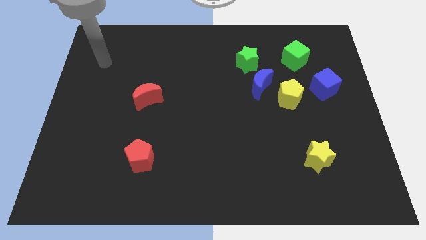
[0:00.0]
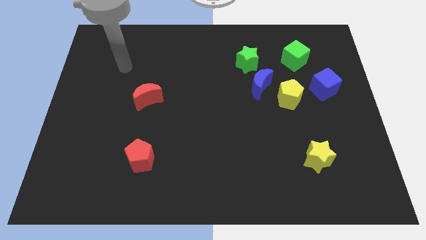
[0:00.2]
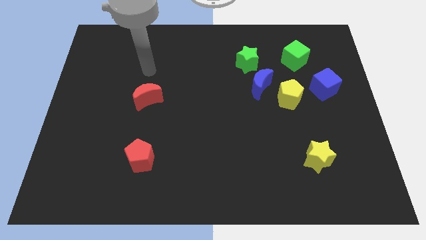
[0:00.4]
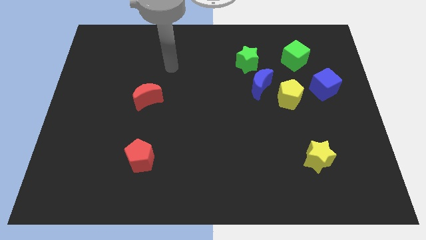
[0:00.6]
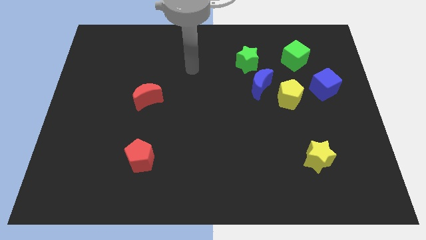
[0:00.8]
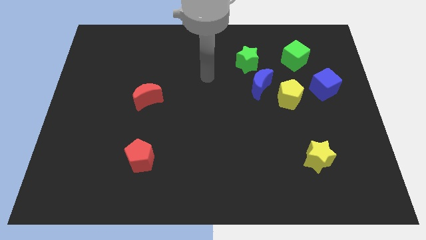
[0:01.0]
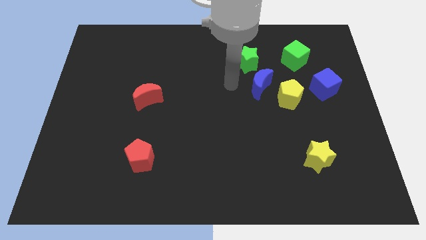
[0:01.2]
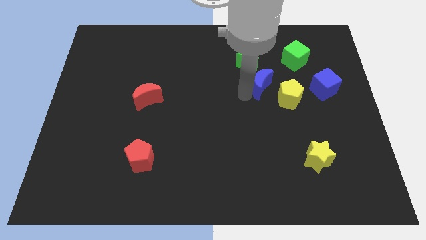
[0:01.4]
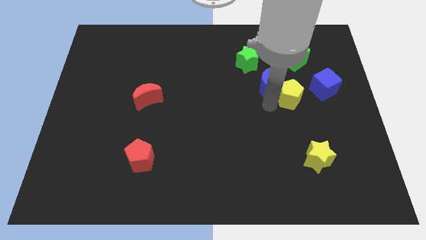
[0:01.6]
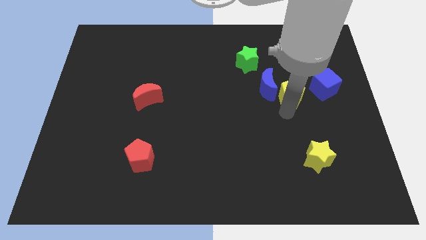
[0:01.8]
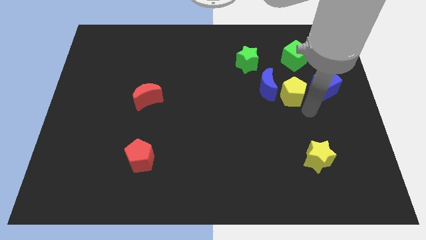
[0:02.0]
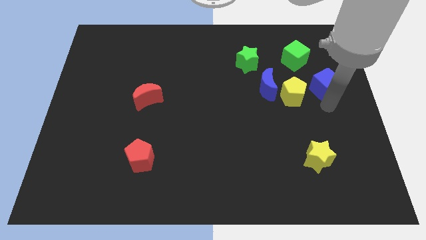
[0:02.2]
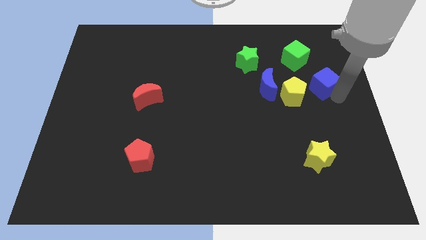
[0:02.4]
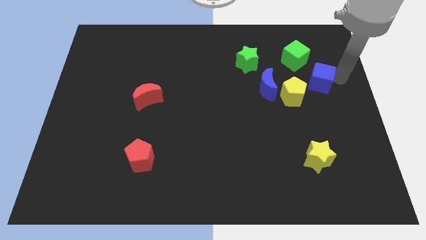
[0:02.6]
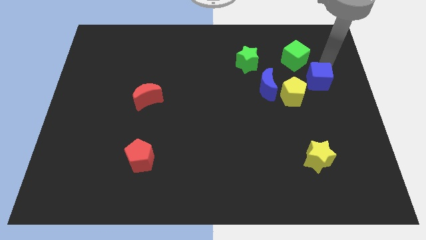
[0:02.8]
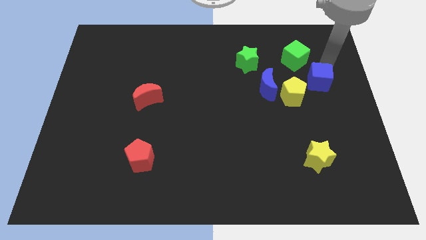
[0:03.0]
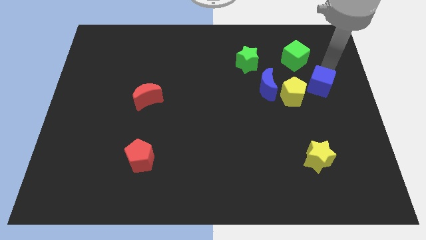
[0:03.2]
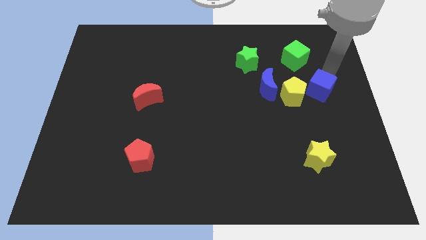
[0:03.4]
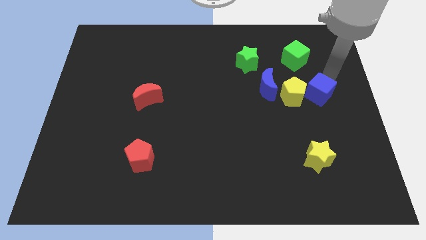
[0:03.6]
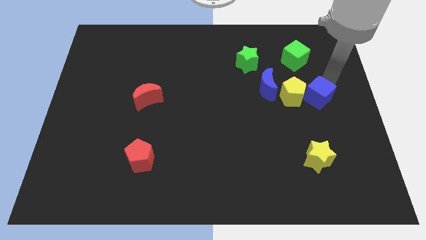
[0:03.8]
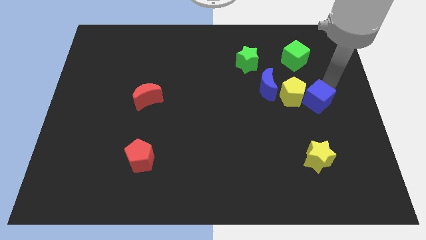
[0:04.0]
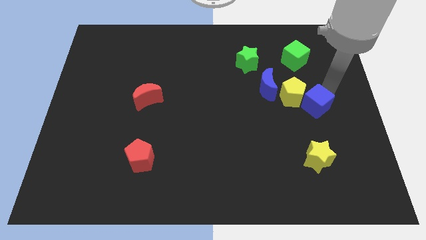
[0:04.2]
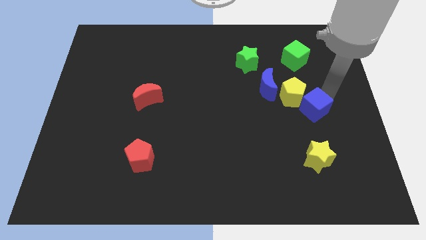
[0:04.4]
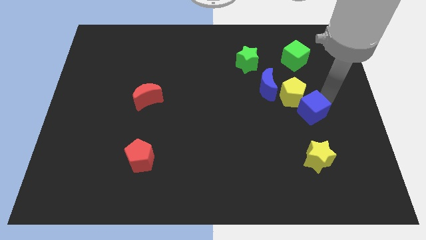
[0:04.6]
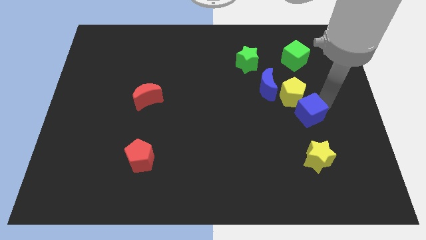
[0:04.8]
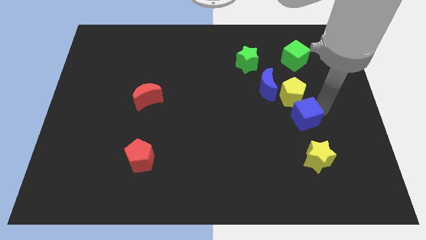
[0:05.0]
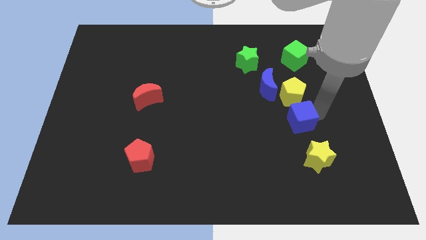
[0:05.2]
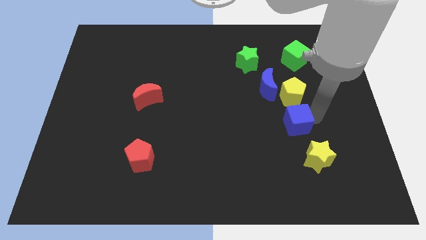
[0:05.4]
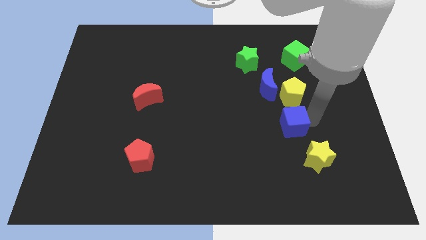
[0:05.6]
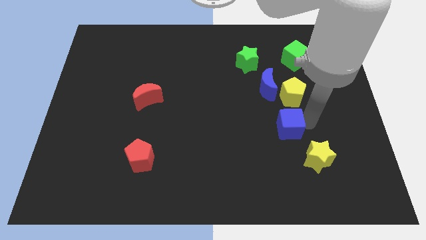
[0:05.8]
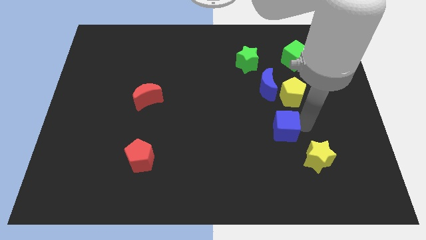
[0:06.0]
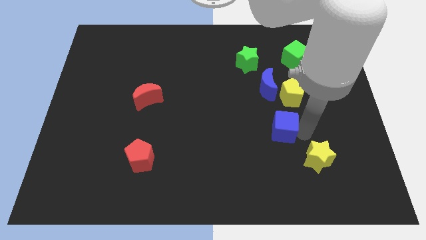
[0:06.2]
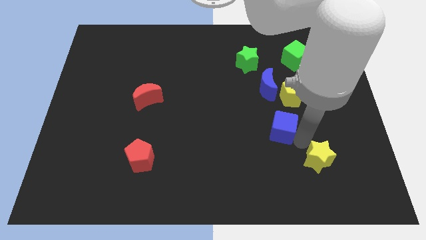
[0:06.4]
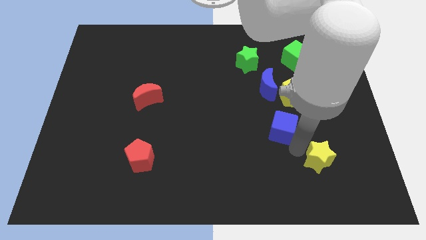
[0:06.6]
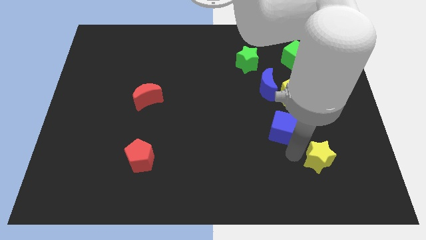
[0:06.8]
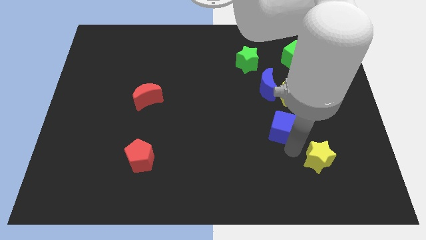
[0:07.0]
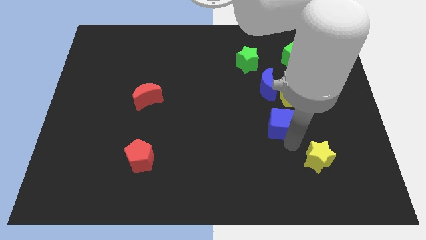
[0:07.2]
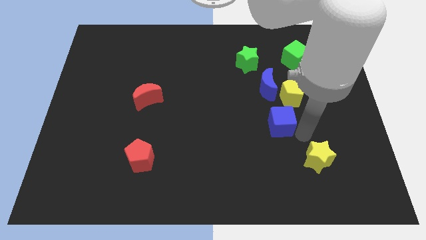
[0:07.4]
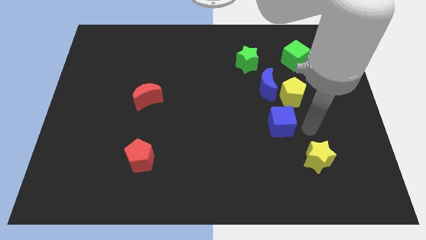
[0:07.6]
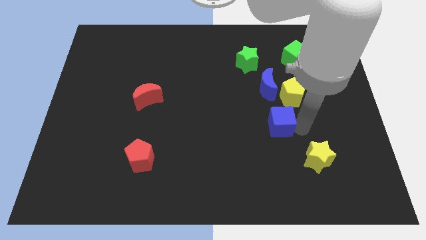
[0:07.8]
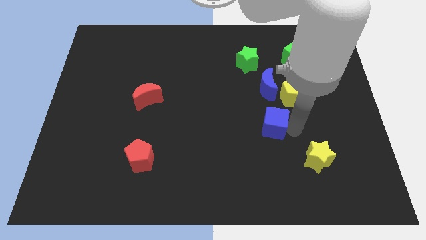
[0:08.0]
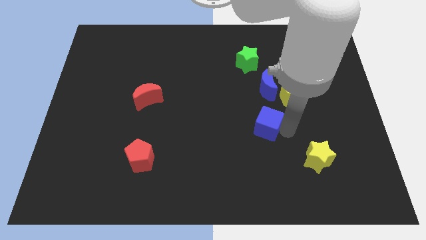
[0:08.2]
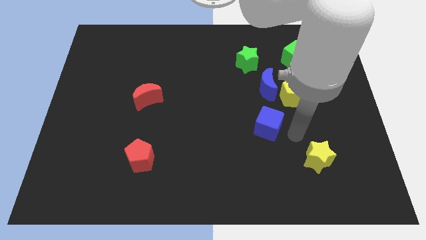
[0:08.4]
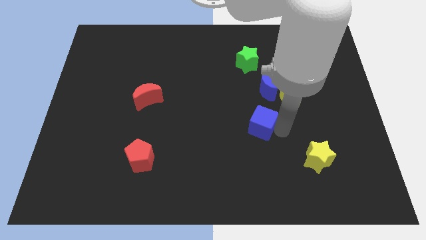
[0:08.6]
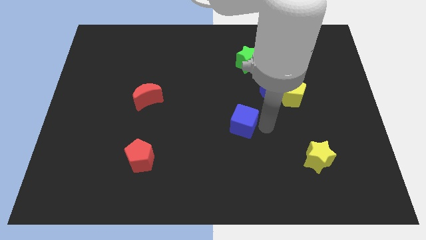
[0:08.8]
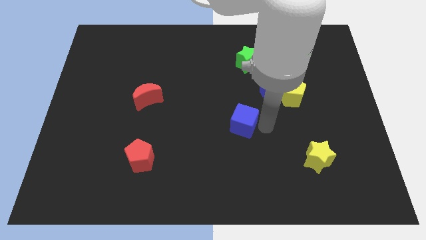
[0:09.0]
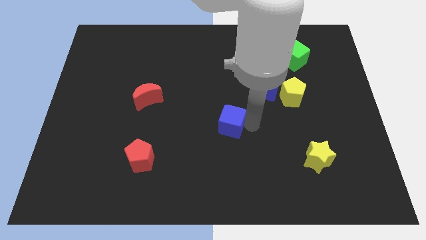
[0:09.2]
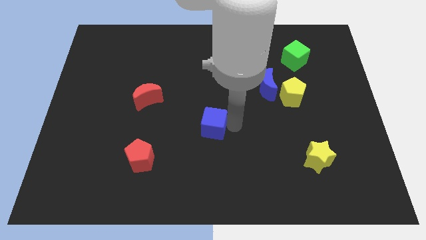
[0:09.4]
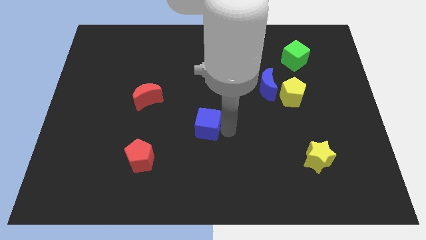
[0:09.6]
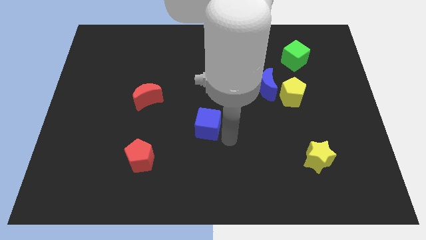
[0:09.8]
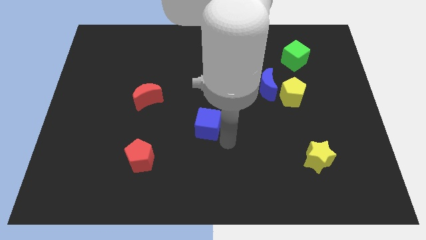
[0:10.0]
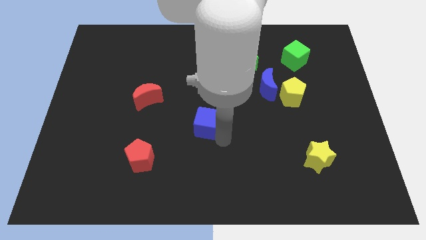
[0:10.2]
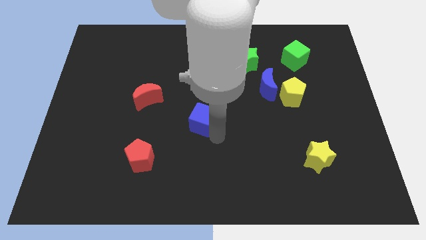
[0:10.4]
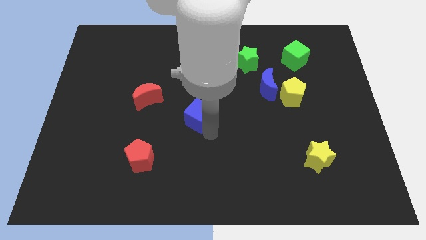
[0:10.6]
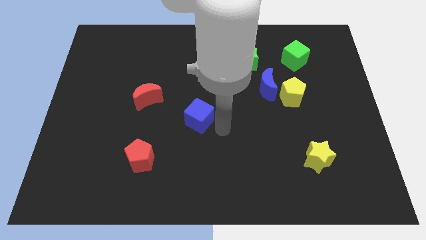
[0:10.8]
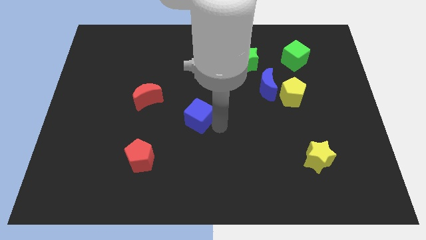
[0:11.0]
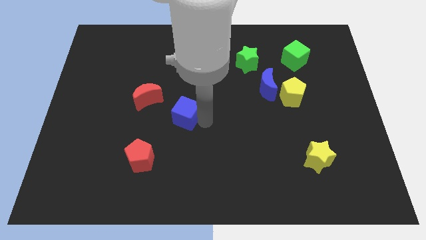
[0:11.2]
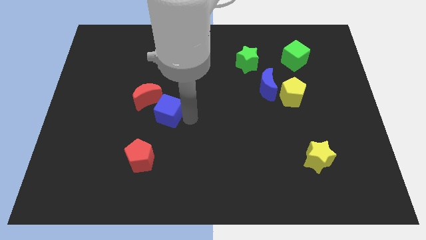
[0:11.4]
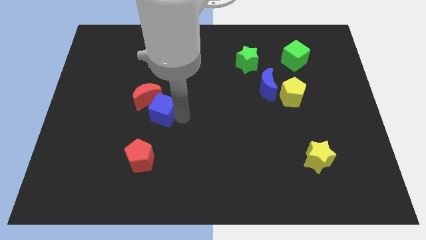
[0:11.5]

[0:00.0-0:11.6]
slide the blue cube to the red moon

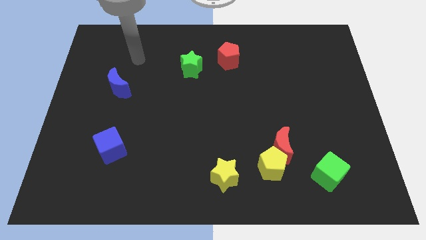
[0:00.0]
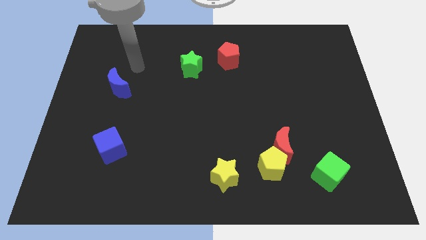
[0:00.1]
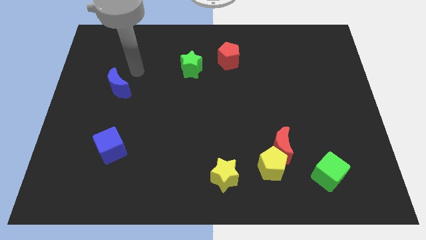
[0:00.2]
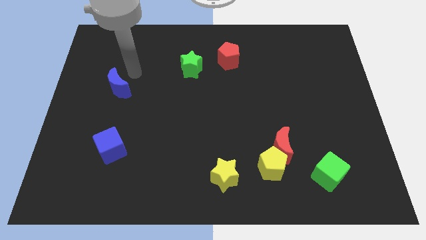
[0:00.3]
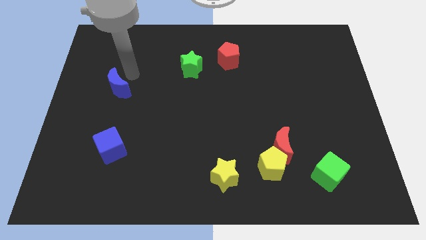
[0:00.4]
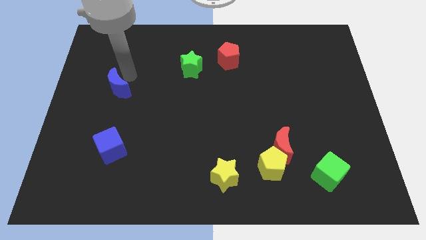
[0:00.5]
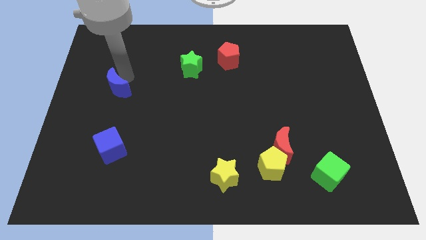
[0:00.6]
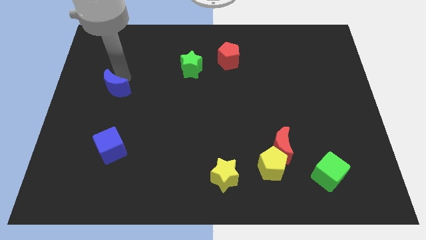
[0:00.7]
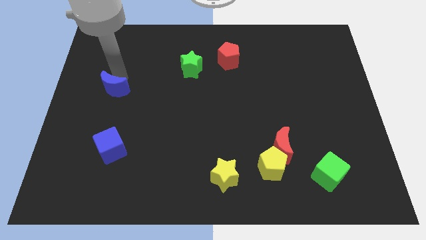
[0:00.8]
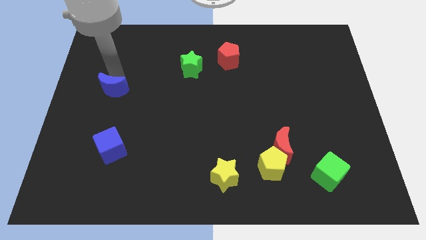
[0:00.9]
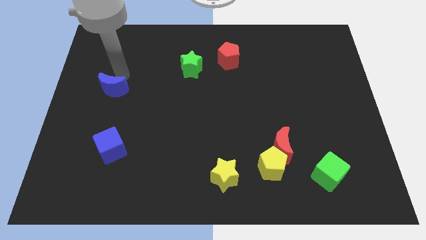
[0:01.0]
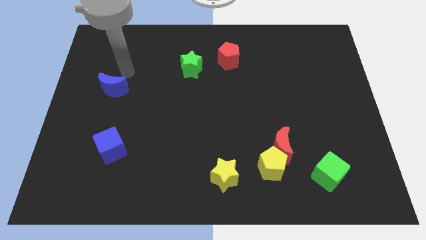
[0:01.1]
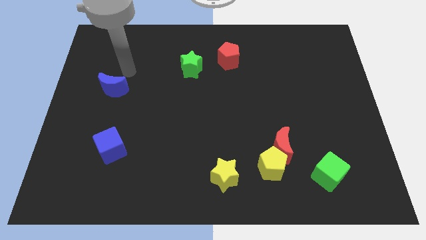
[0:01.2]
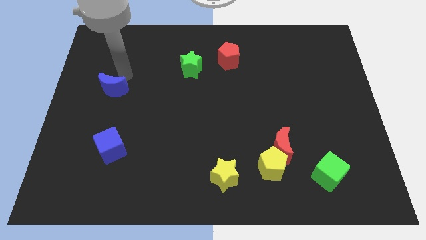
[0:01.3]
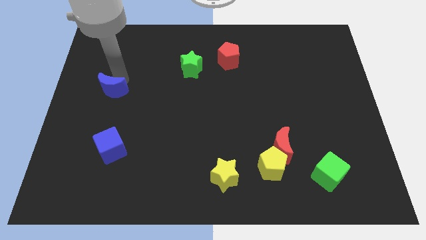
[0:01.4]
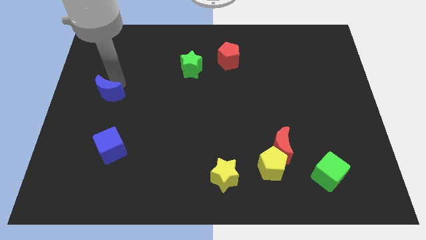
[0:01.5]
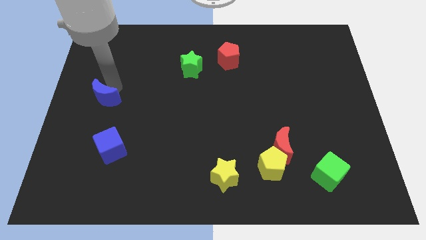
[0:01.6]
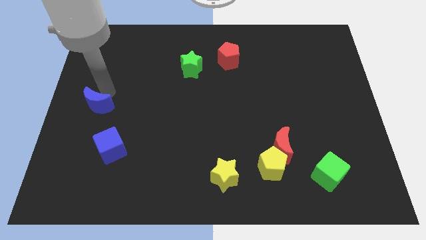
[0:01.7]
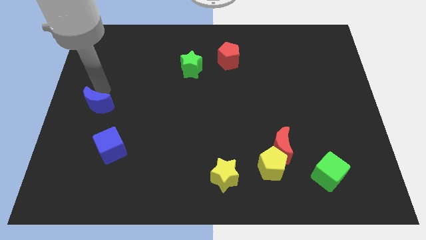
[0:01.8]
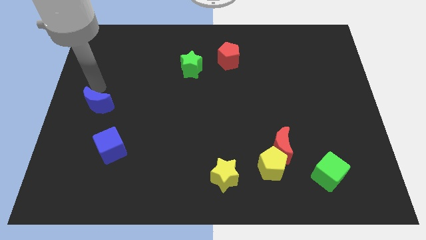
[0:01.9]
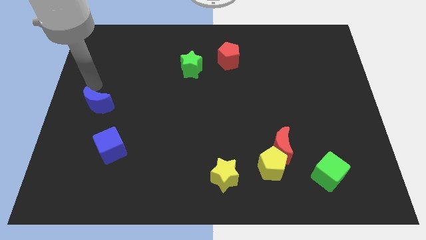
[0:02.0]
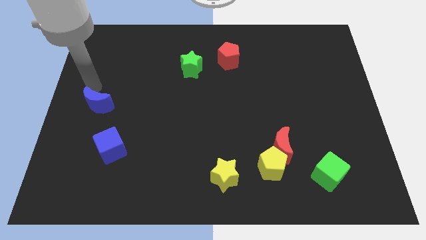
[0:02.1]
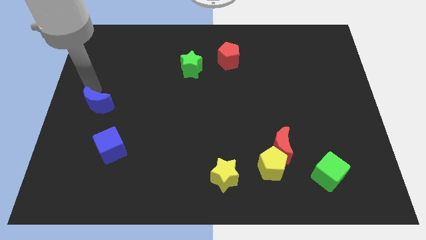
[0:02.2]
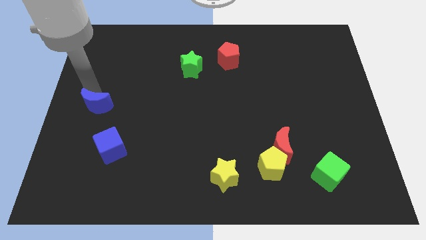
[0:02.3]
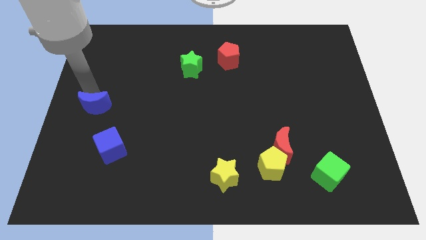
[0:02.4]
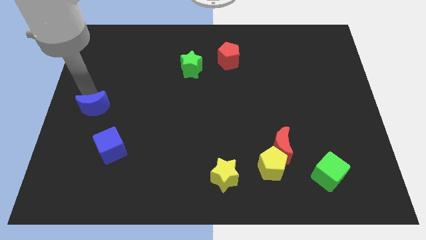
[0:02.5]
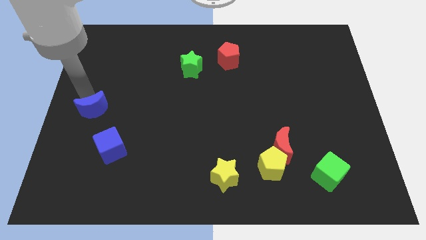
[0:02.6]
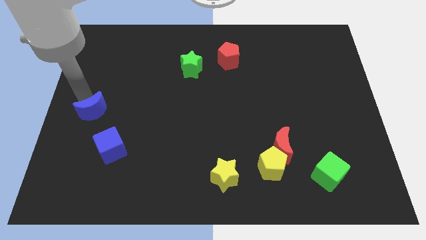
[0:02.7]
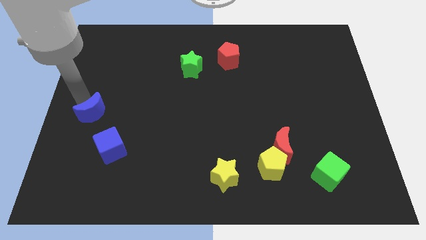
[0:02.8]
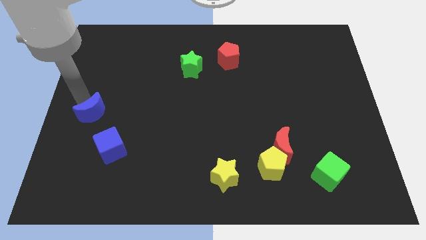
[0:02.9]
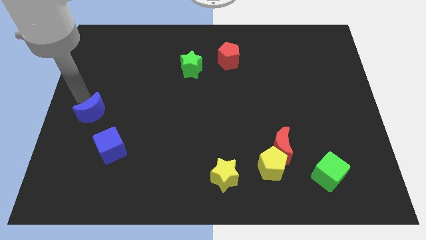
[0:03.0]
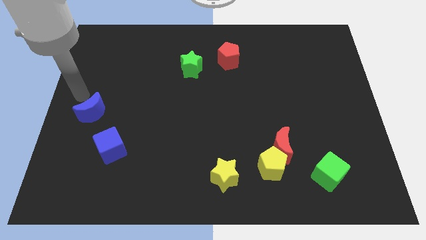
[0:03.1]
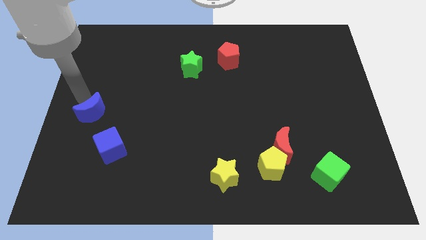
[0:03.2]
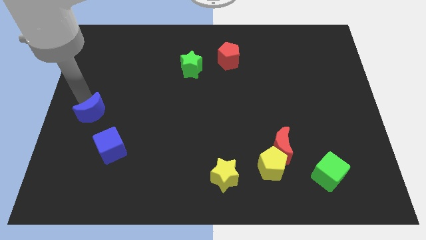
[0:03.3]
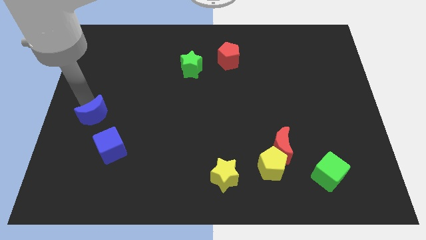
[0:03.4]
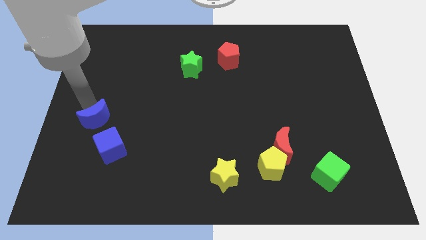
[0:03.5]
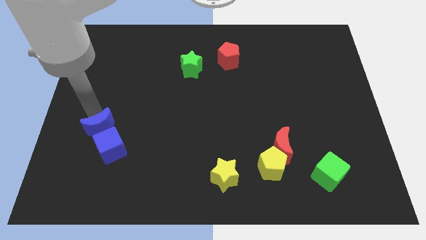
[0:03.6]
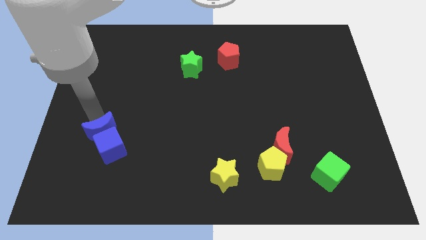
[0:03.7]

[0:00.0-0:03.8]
slide the blue moon next to the blue cube
